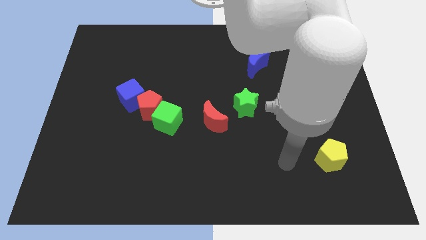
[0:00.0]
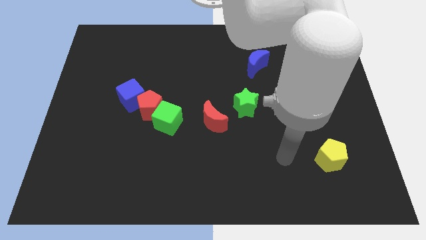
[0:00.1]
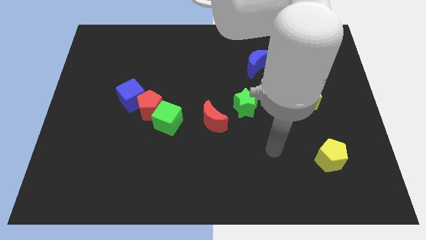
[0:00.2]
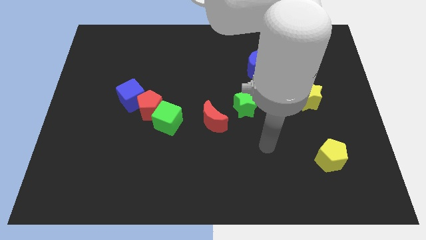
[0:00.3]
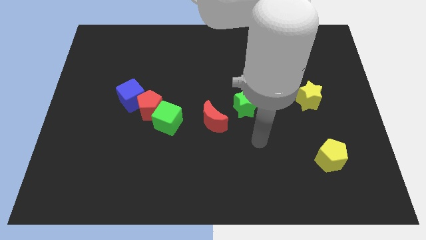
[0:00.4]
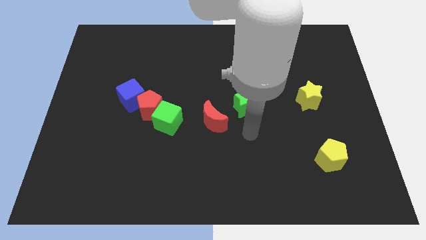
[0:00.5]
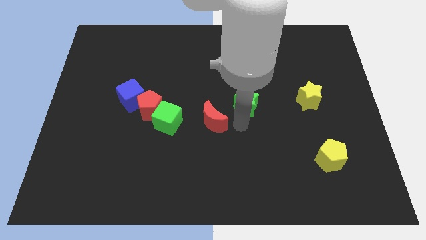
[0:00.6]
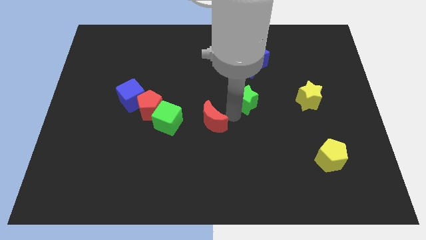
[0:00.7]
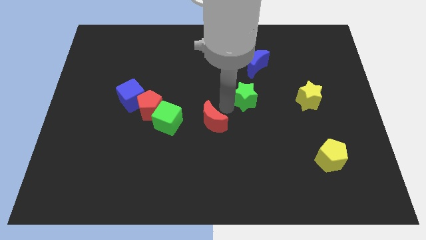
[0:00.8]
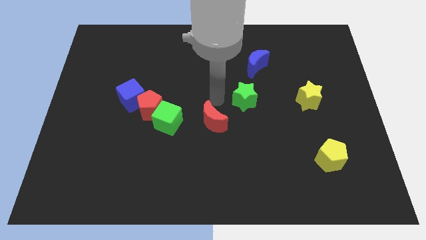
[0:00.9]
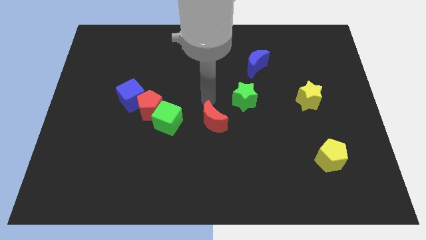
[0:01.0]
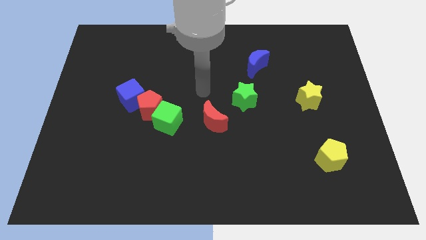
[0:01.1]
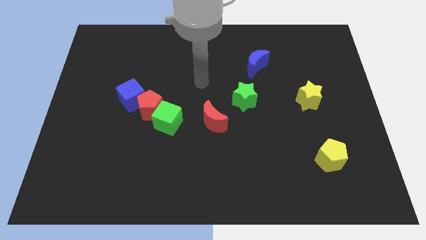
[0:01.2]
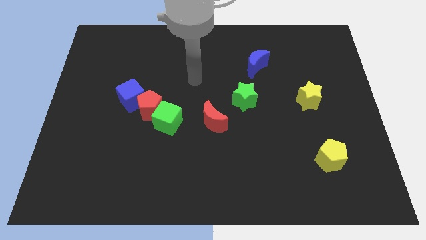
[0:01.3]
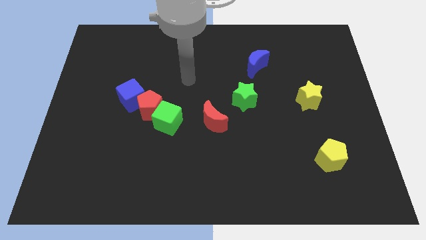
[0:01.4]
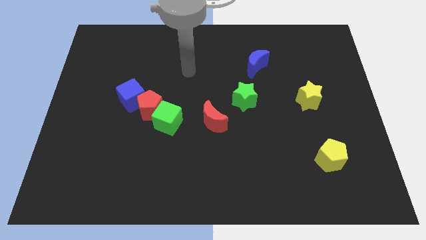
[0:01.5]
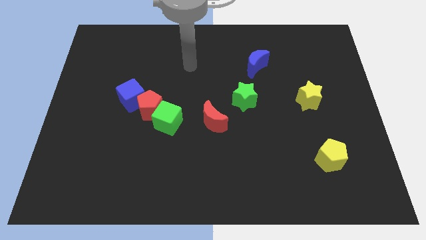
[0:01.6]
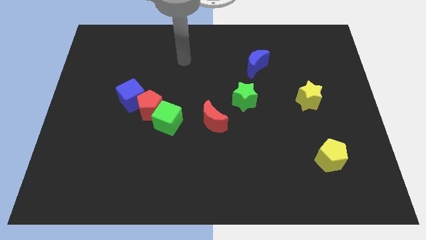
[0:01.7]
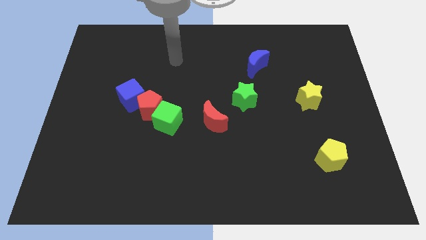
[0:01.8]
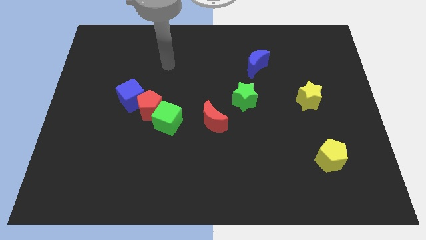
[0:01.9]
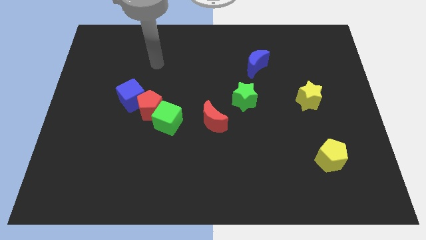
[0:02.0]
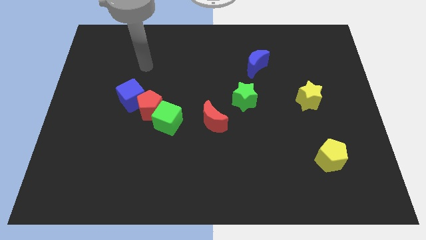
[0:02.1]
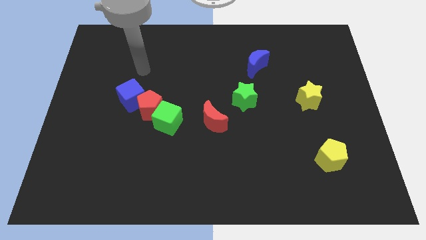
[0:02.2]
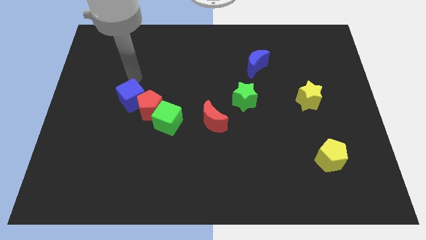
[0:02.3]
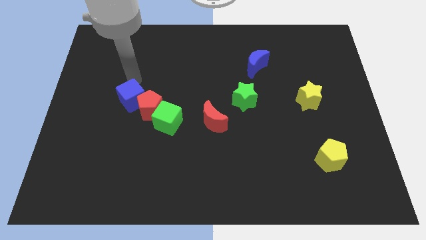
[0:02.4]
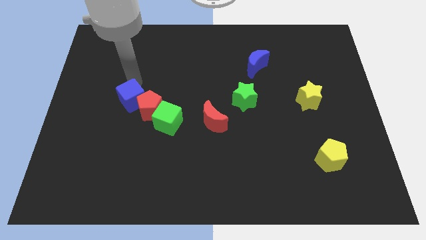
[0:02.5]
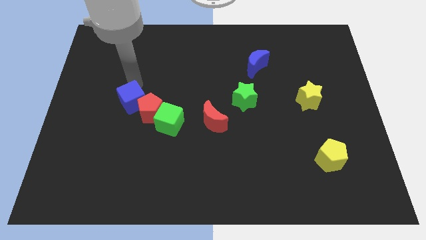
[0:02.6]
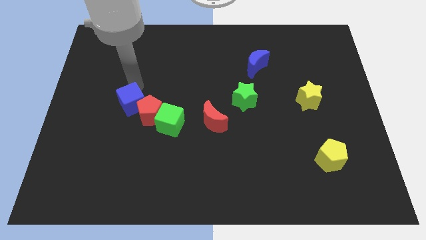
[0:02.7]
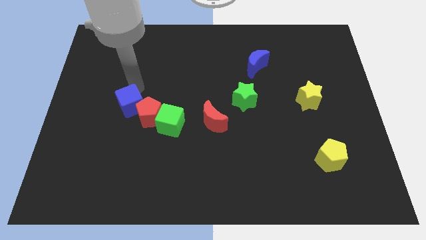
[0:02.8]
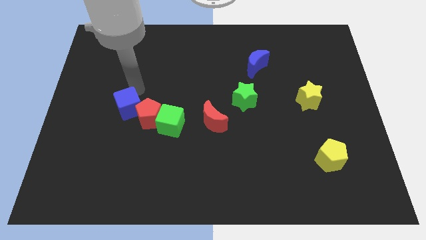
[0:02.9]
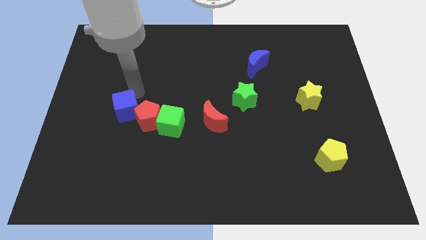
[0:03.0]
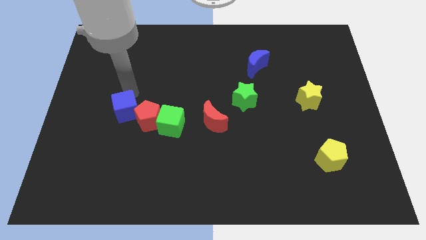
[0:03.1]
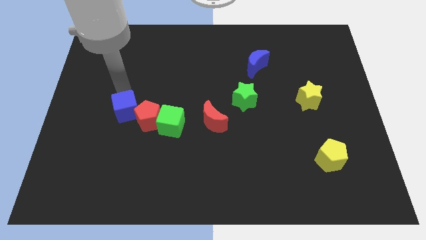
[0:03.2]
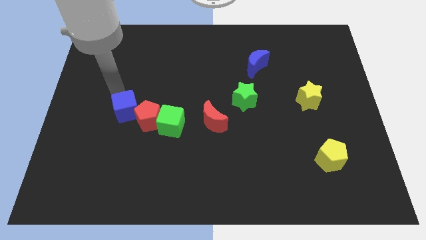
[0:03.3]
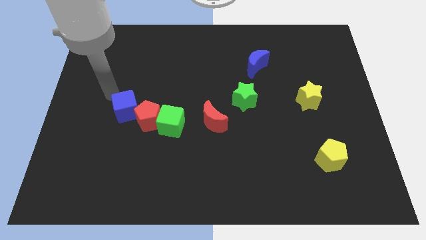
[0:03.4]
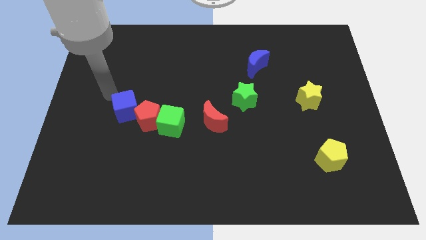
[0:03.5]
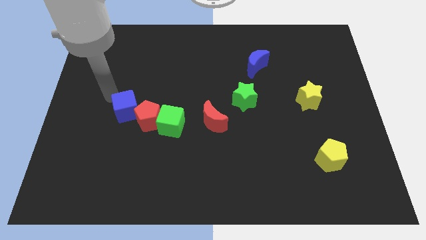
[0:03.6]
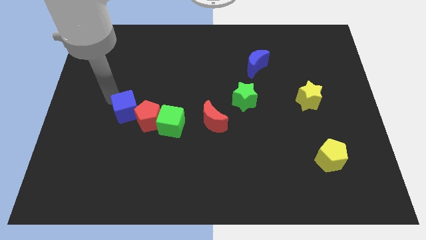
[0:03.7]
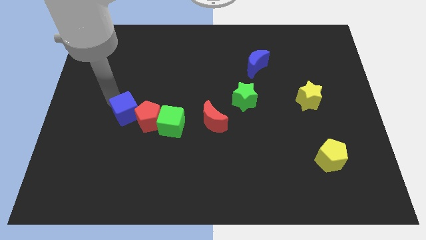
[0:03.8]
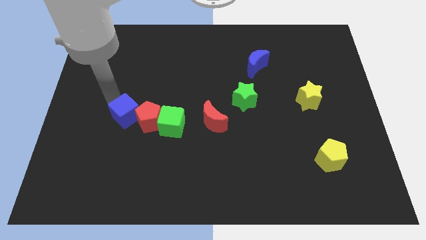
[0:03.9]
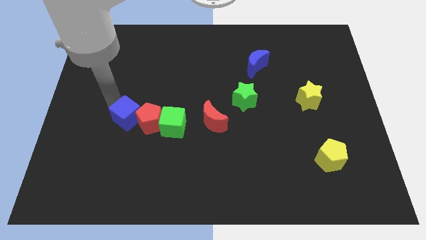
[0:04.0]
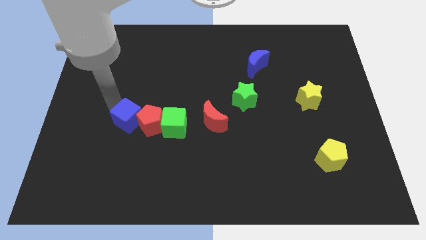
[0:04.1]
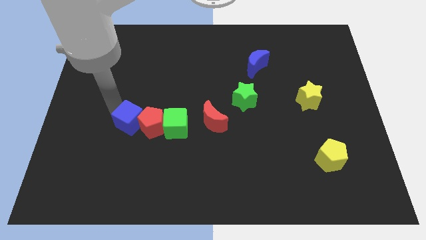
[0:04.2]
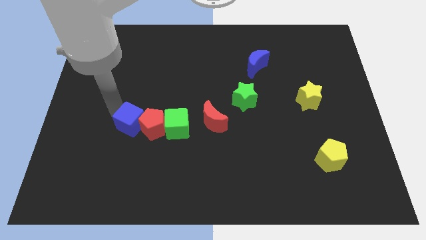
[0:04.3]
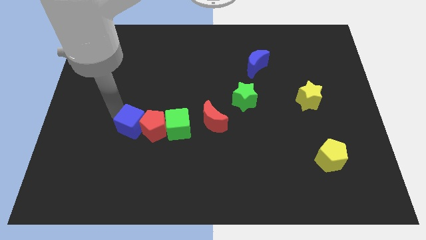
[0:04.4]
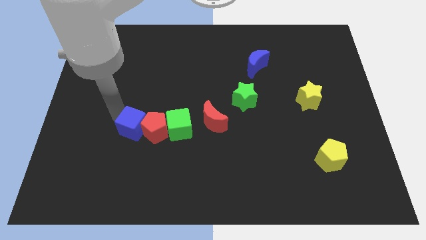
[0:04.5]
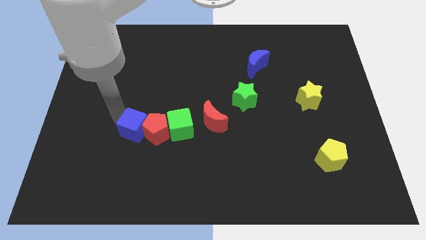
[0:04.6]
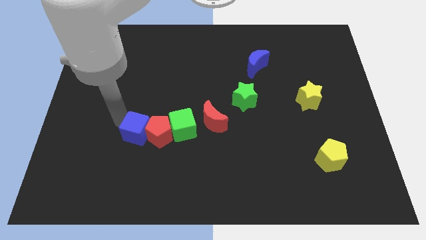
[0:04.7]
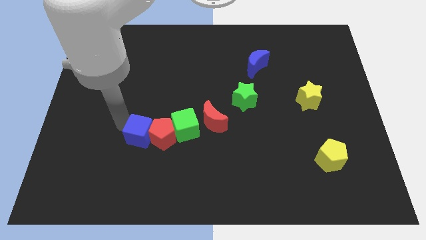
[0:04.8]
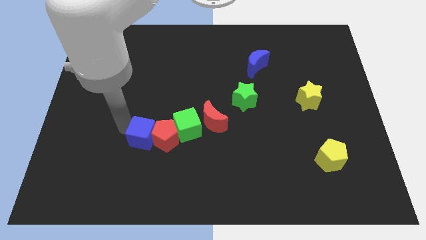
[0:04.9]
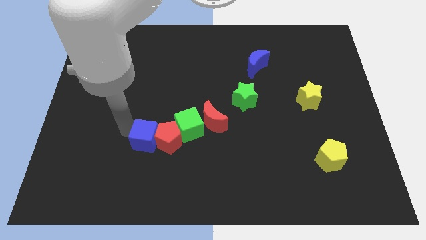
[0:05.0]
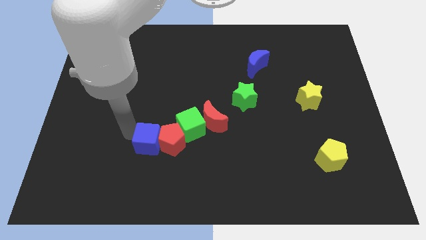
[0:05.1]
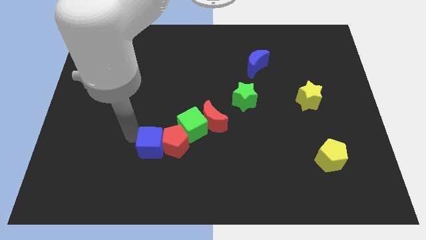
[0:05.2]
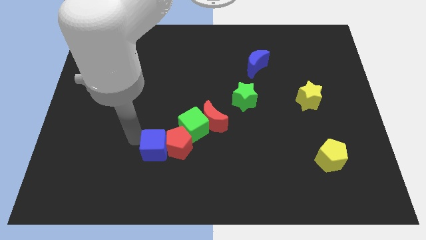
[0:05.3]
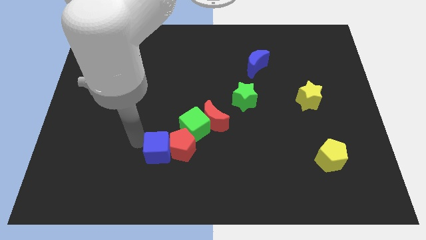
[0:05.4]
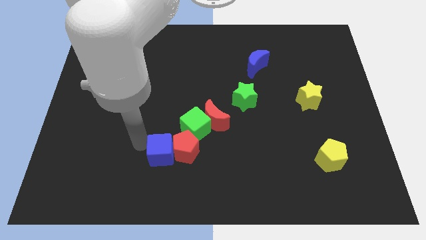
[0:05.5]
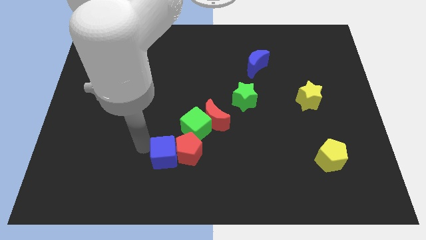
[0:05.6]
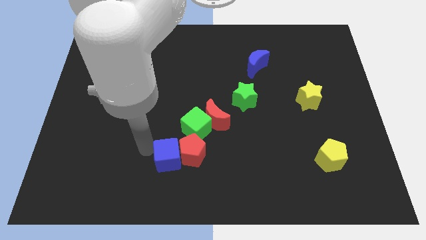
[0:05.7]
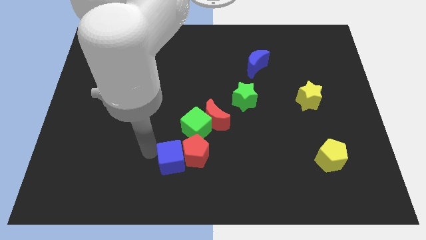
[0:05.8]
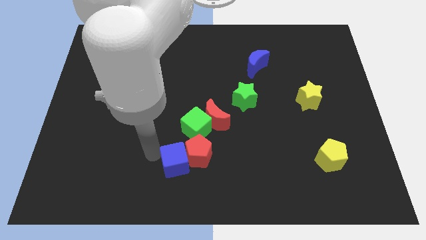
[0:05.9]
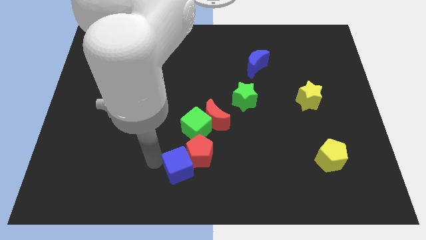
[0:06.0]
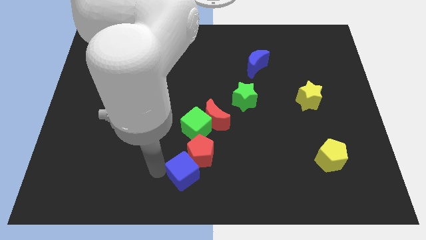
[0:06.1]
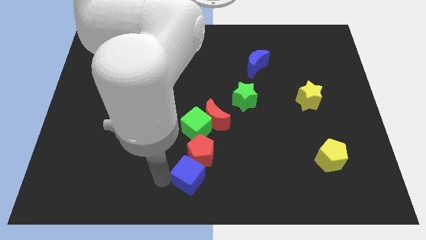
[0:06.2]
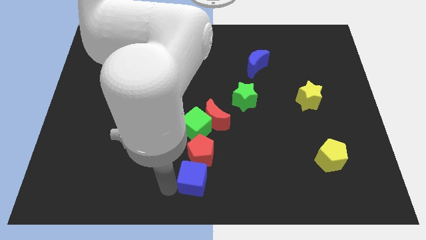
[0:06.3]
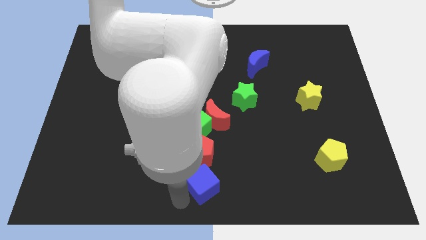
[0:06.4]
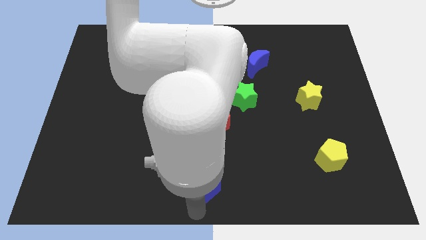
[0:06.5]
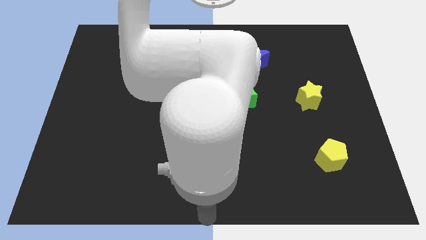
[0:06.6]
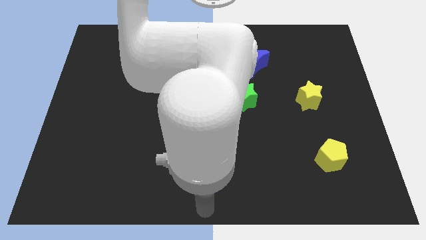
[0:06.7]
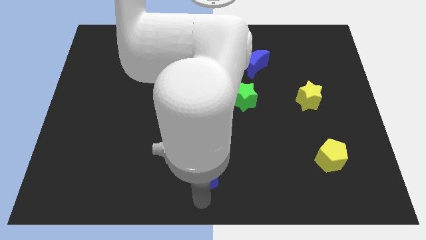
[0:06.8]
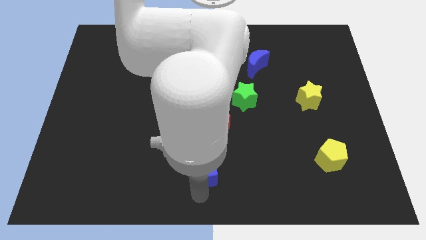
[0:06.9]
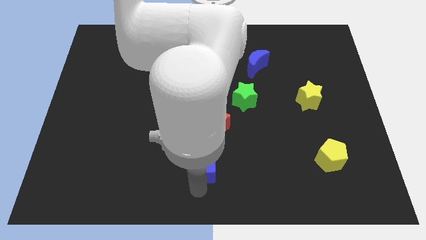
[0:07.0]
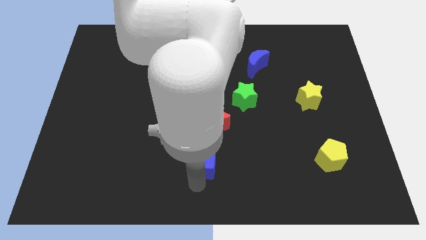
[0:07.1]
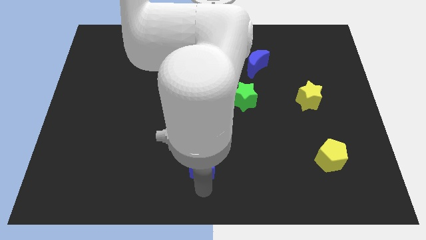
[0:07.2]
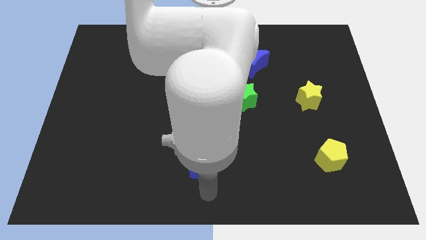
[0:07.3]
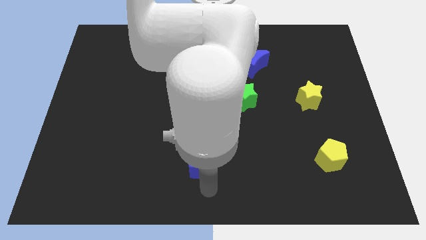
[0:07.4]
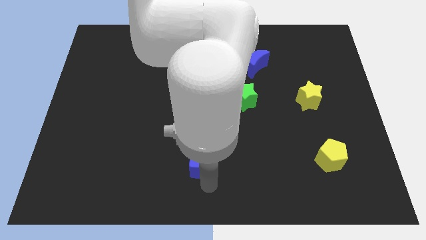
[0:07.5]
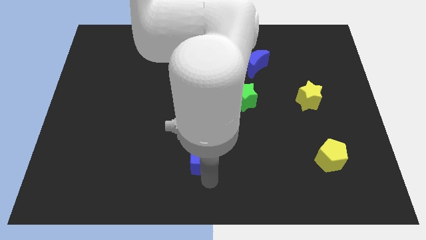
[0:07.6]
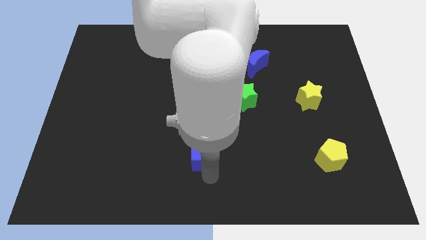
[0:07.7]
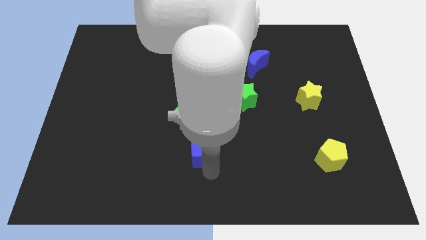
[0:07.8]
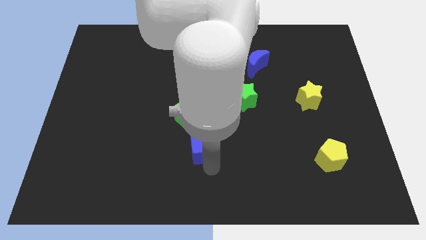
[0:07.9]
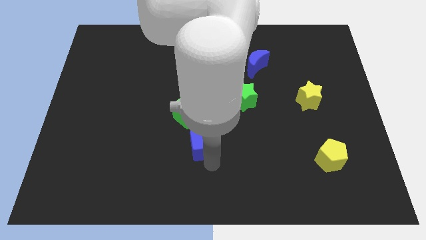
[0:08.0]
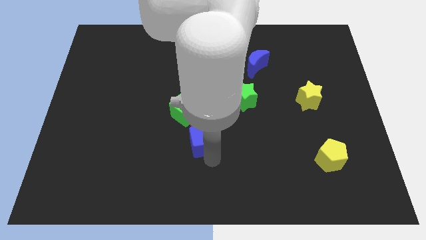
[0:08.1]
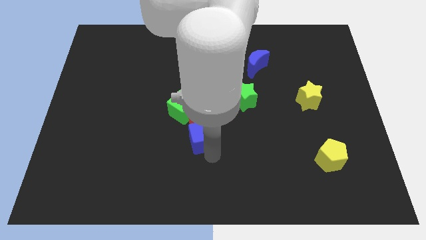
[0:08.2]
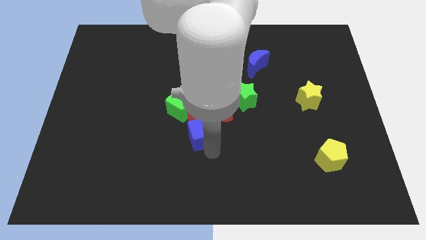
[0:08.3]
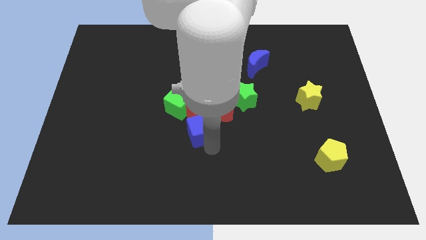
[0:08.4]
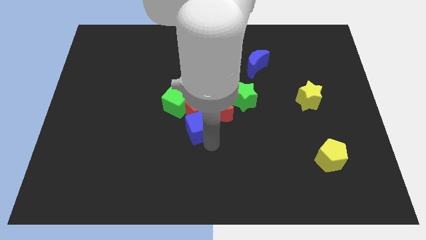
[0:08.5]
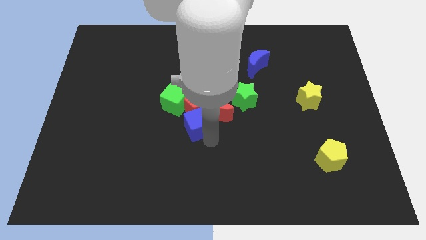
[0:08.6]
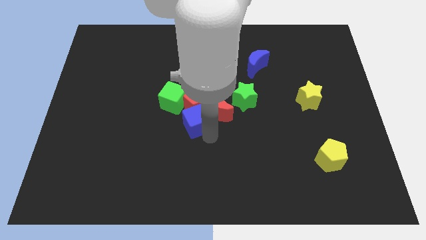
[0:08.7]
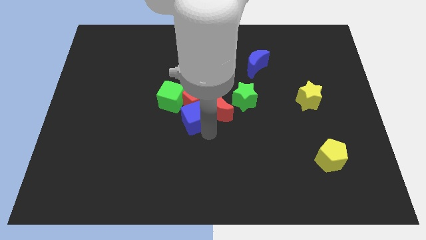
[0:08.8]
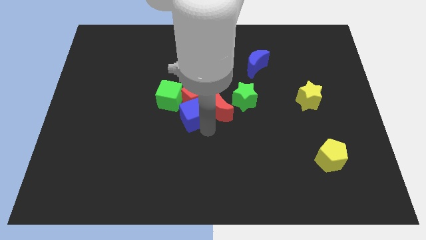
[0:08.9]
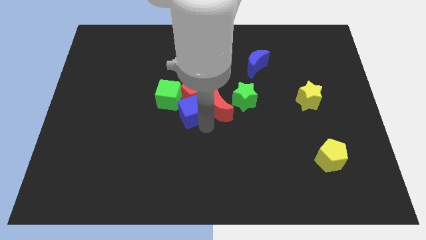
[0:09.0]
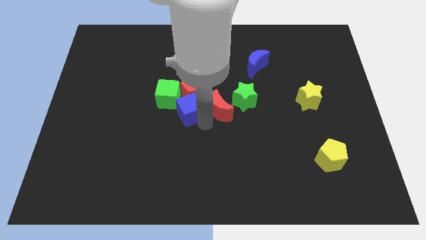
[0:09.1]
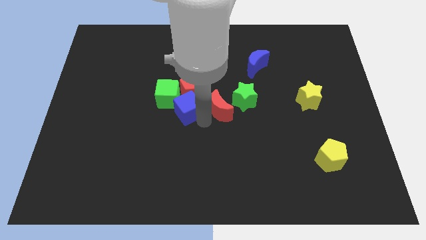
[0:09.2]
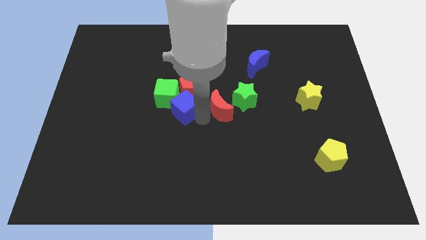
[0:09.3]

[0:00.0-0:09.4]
push the blue cube next to the green cube
